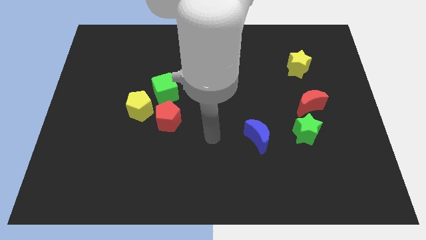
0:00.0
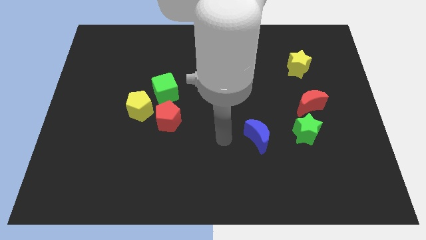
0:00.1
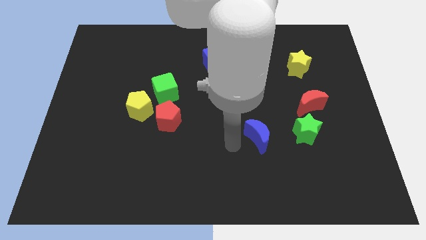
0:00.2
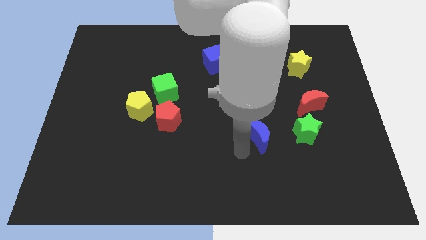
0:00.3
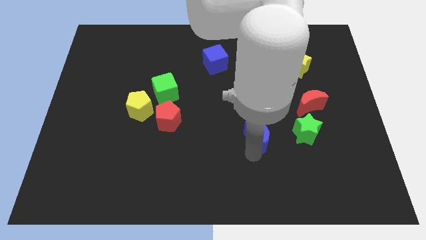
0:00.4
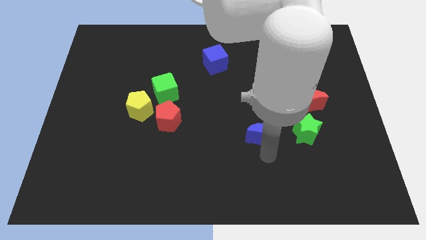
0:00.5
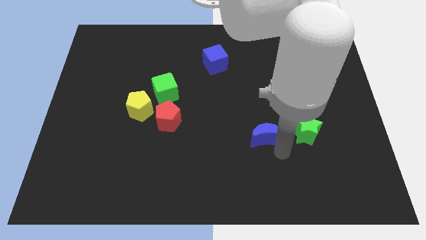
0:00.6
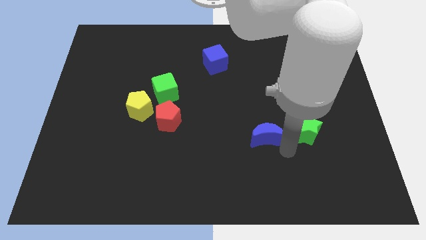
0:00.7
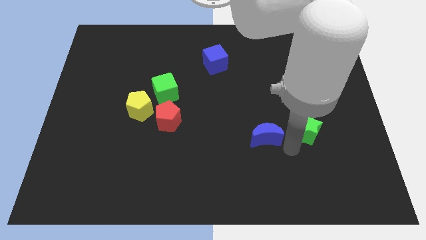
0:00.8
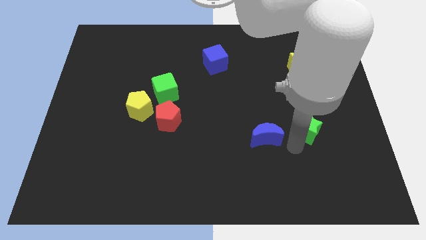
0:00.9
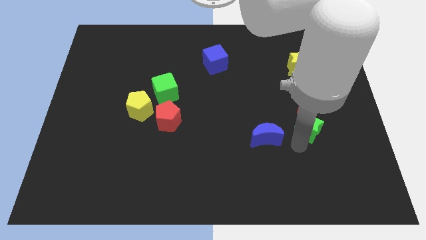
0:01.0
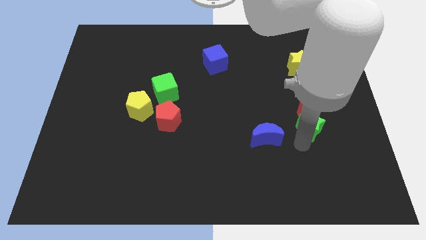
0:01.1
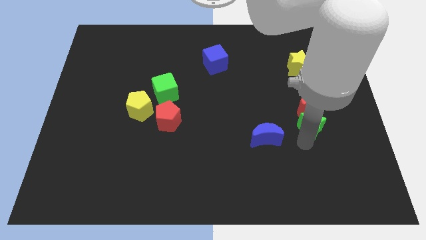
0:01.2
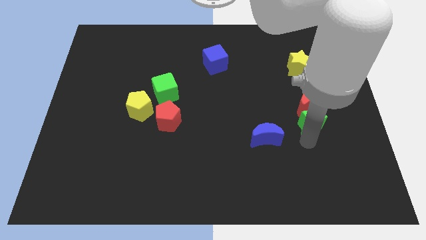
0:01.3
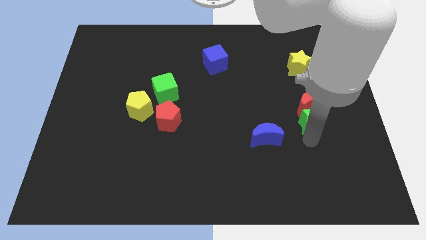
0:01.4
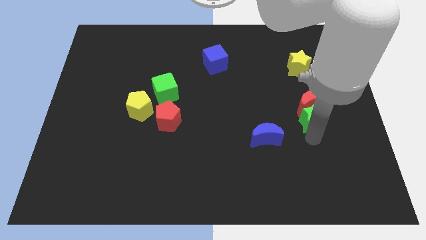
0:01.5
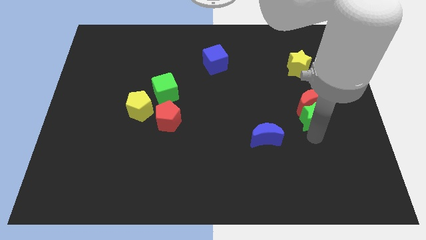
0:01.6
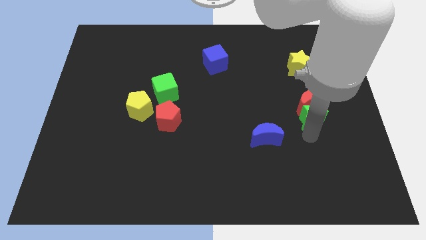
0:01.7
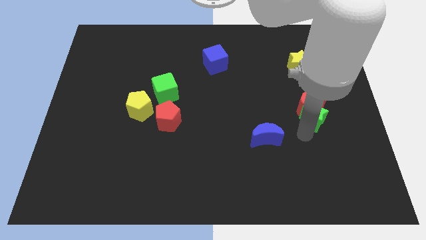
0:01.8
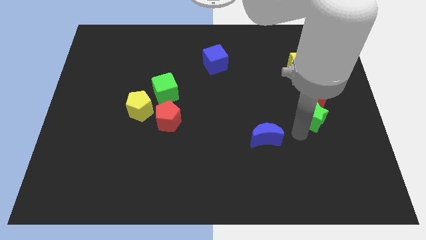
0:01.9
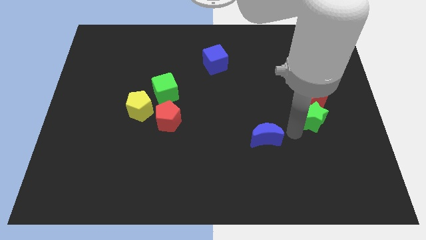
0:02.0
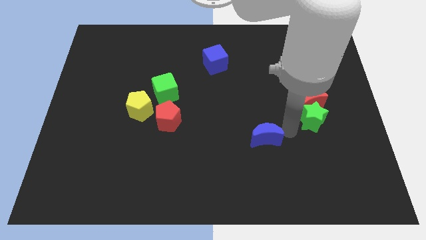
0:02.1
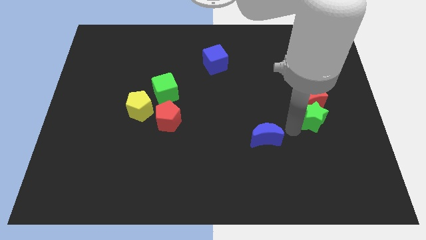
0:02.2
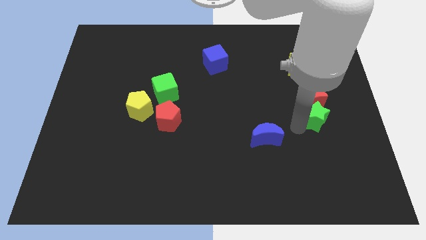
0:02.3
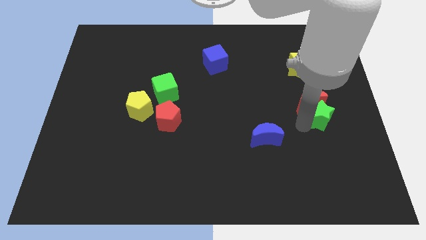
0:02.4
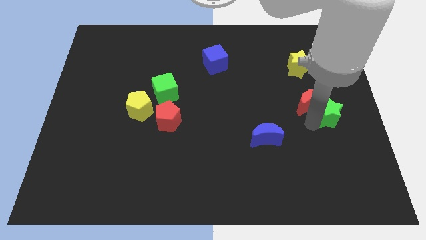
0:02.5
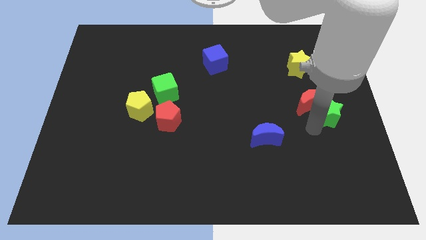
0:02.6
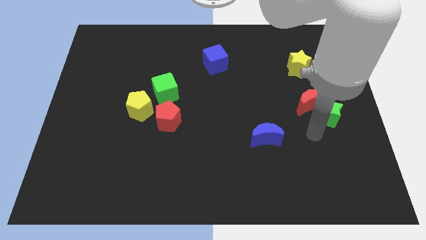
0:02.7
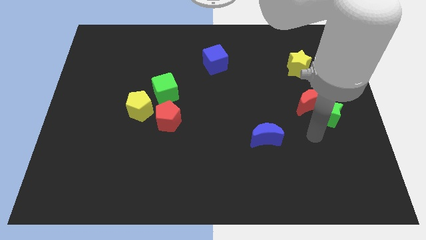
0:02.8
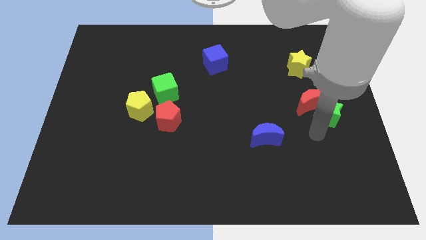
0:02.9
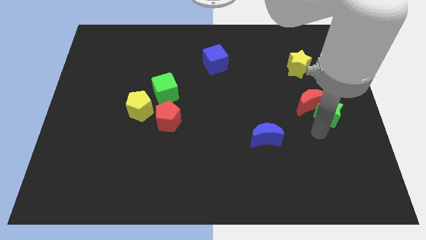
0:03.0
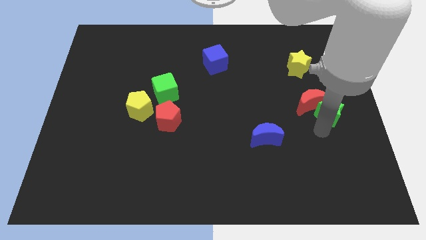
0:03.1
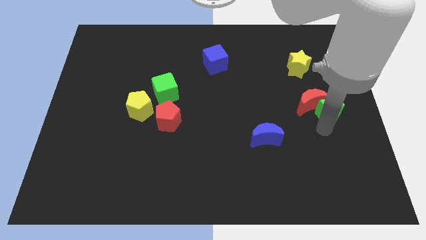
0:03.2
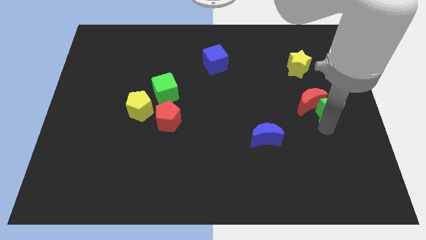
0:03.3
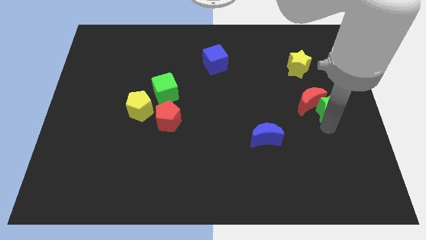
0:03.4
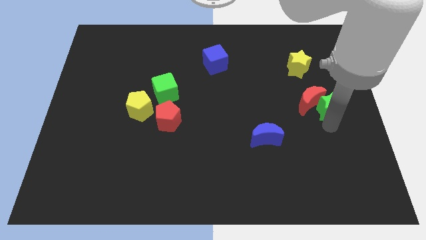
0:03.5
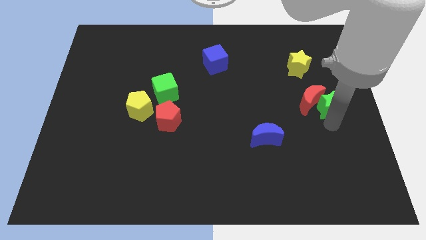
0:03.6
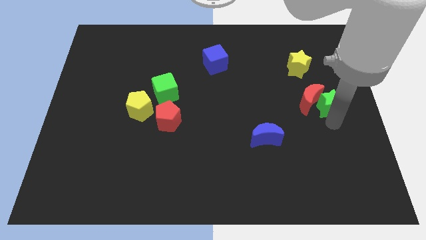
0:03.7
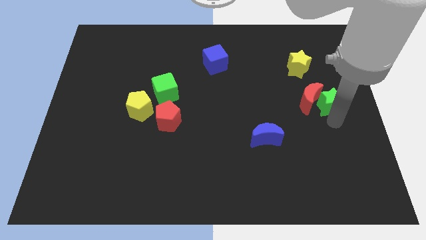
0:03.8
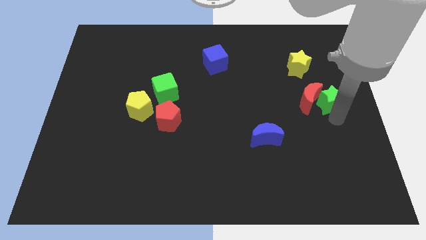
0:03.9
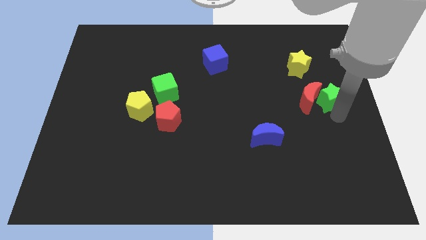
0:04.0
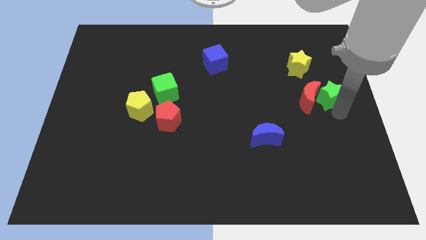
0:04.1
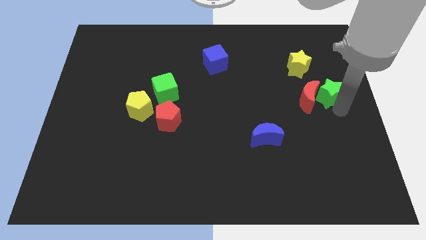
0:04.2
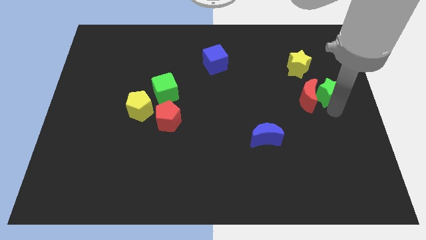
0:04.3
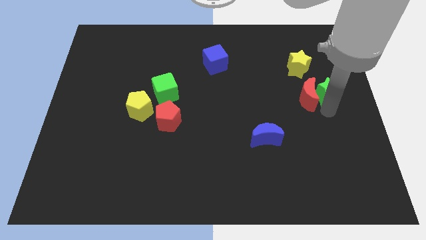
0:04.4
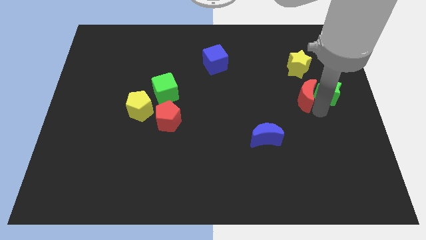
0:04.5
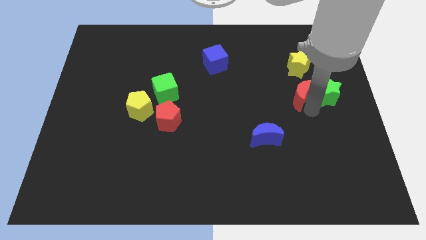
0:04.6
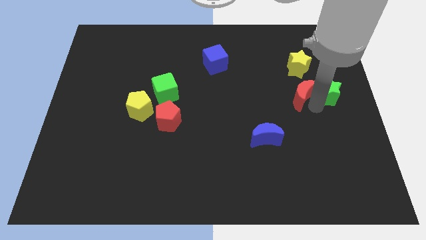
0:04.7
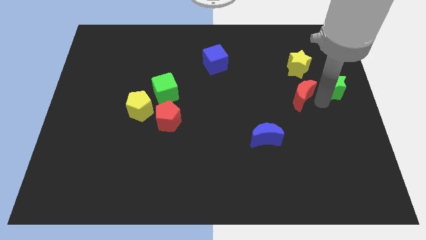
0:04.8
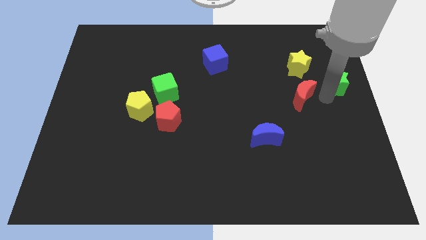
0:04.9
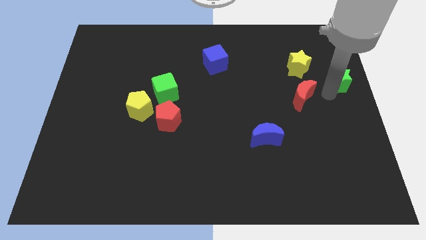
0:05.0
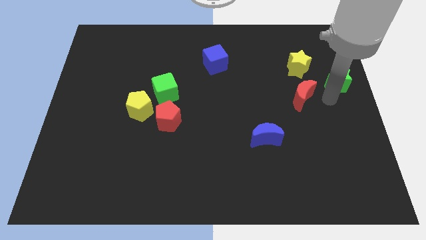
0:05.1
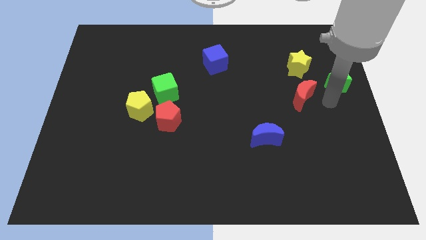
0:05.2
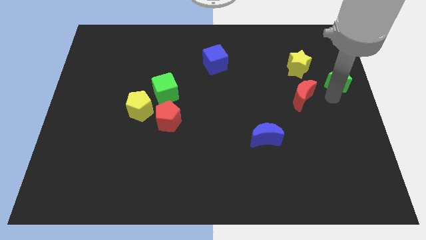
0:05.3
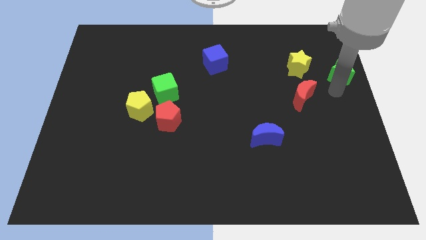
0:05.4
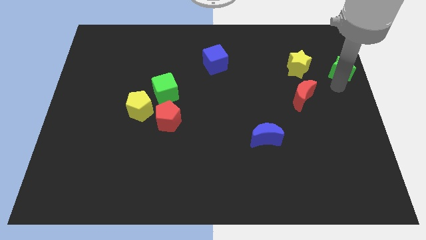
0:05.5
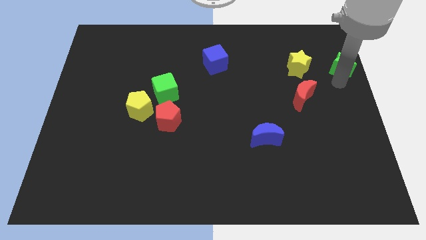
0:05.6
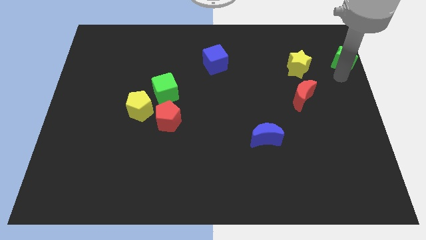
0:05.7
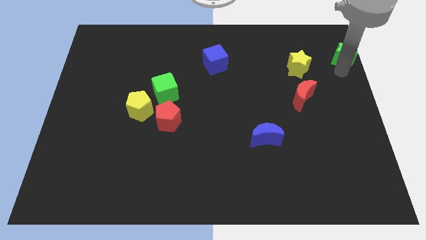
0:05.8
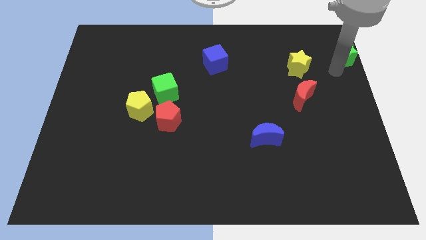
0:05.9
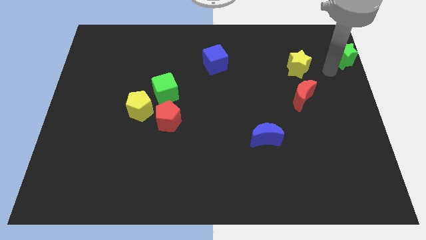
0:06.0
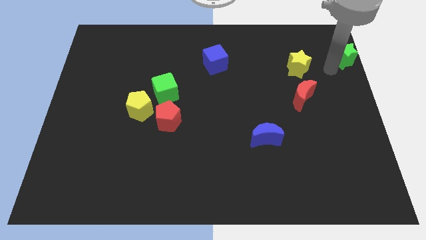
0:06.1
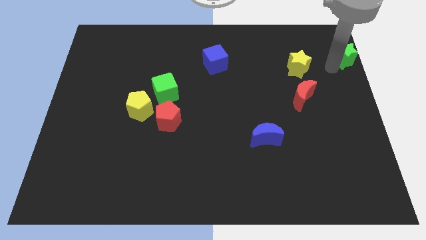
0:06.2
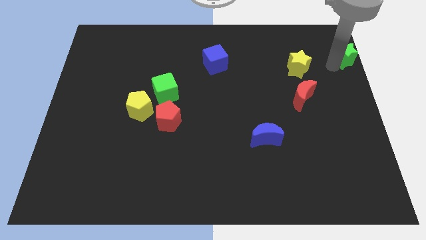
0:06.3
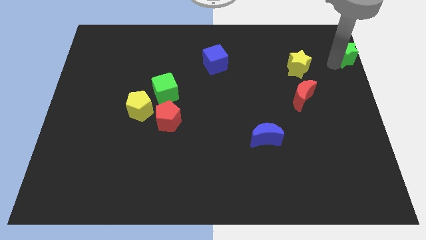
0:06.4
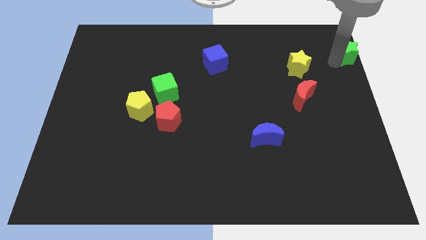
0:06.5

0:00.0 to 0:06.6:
move the green star to the upper right corner
